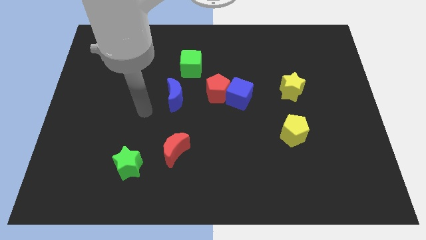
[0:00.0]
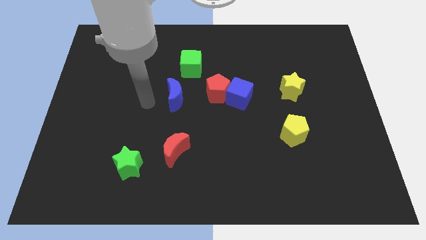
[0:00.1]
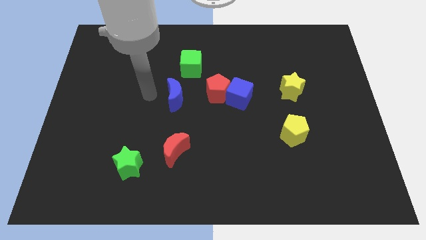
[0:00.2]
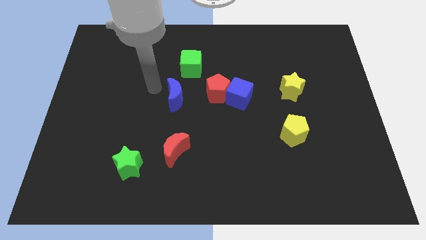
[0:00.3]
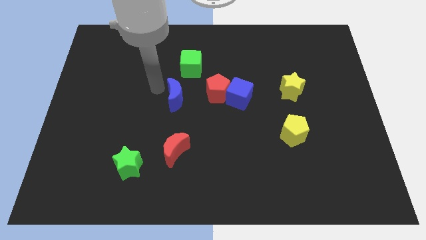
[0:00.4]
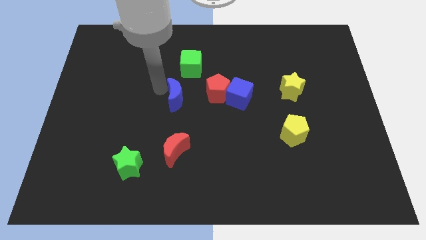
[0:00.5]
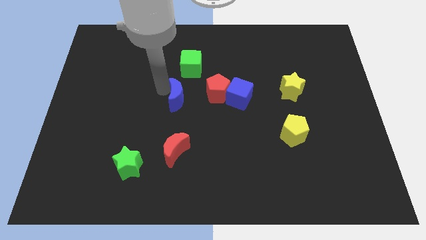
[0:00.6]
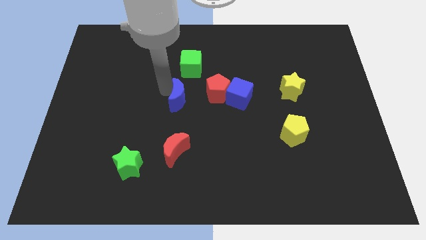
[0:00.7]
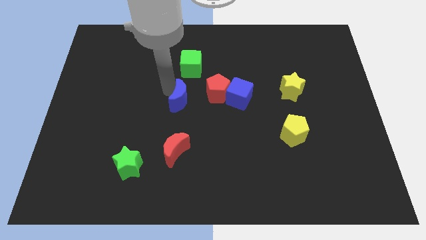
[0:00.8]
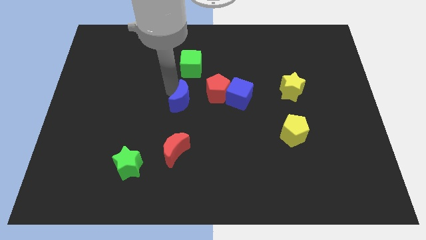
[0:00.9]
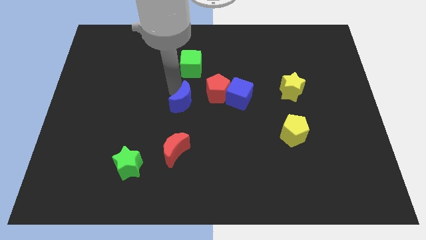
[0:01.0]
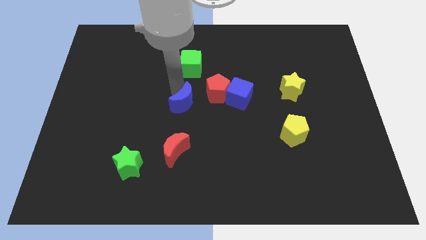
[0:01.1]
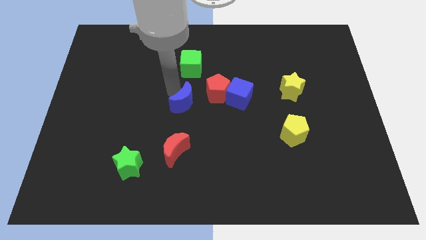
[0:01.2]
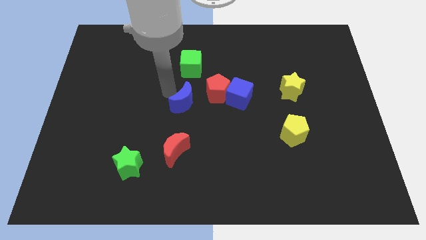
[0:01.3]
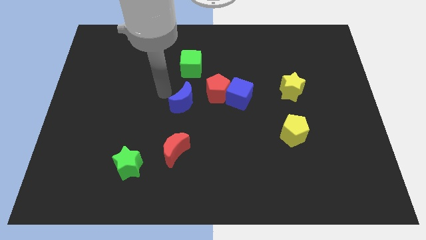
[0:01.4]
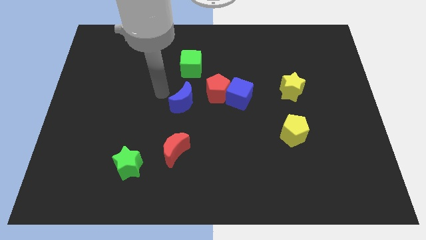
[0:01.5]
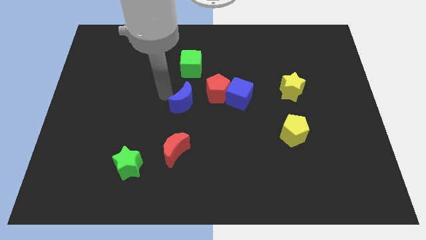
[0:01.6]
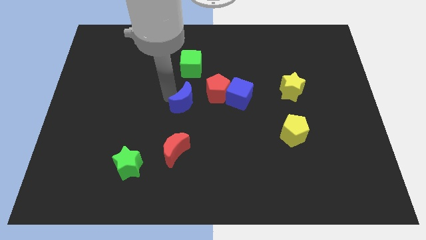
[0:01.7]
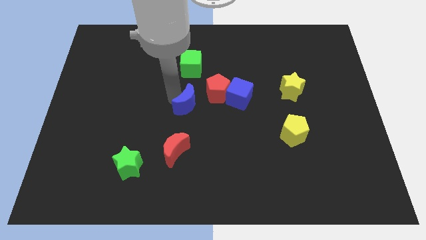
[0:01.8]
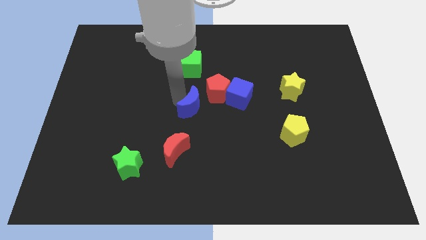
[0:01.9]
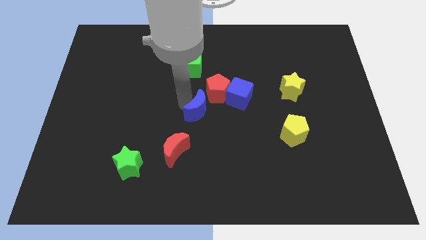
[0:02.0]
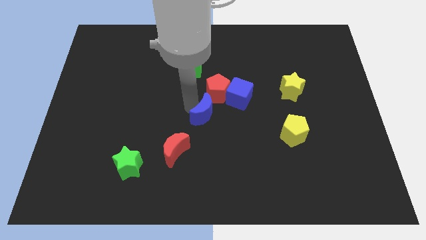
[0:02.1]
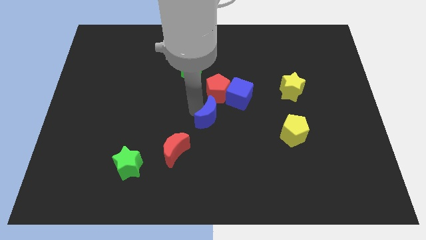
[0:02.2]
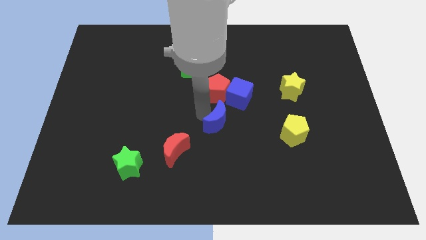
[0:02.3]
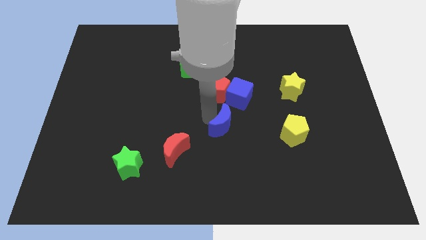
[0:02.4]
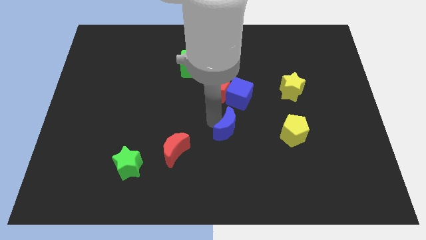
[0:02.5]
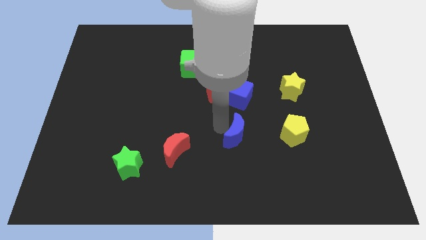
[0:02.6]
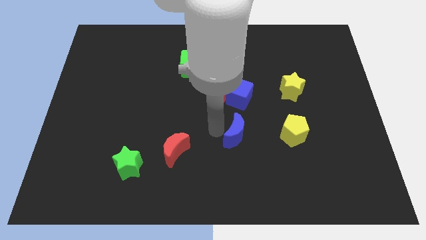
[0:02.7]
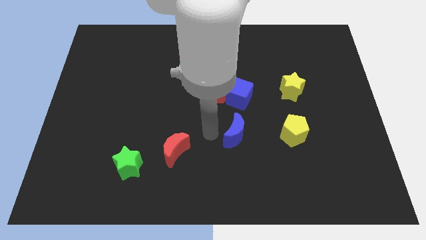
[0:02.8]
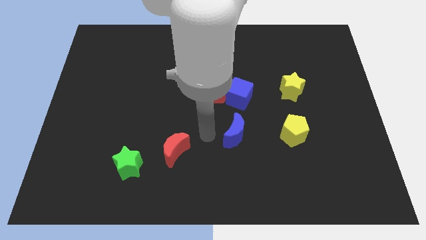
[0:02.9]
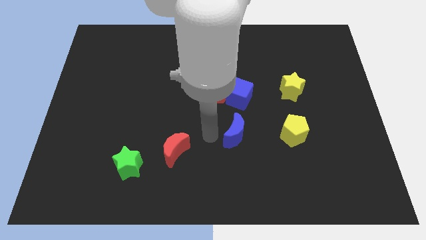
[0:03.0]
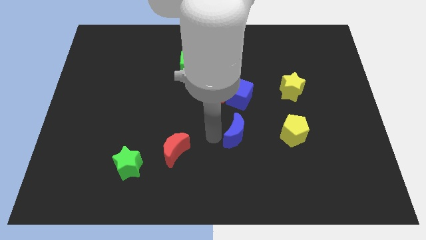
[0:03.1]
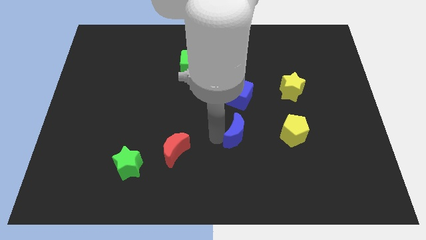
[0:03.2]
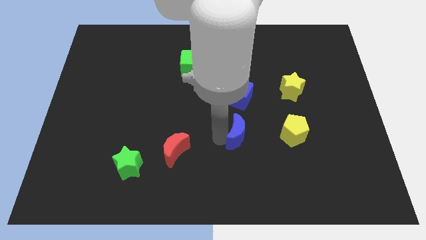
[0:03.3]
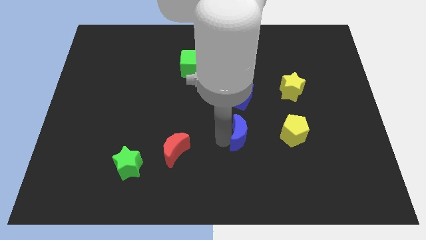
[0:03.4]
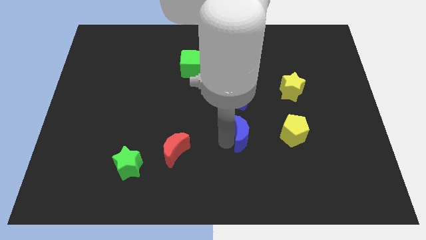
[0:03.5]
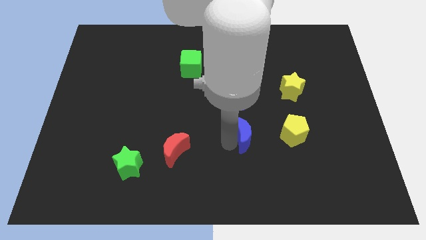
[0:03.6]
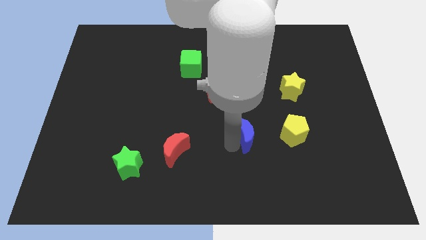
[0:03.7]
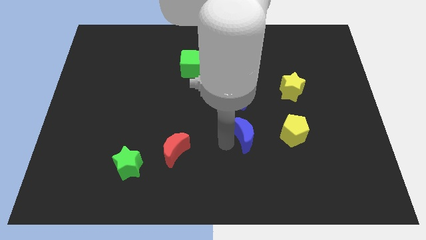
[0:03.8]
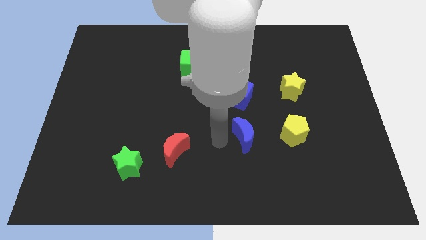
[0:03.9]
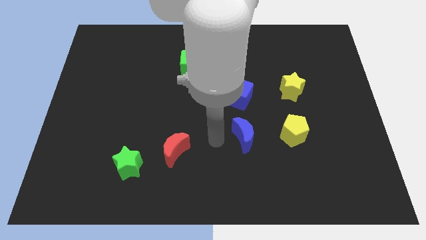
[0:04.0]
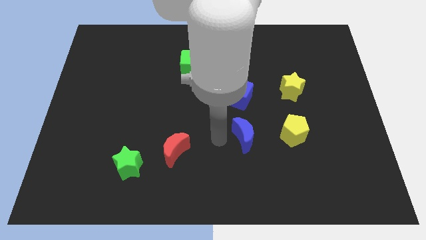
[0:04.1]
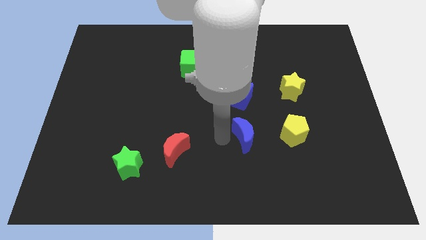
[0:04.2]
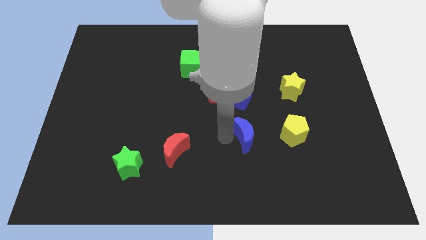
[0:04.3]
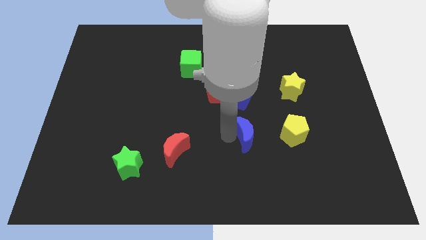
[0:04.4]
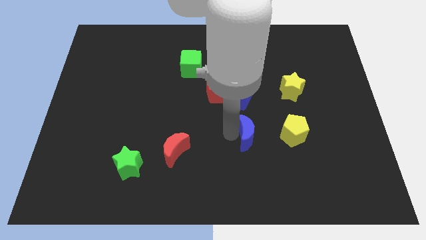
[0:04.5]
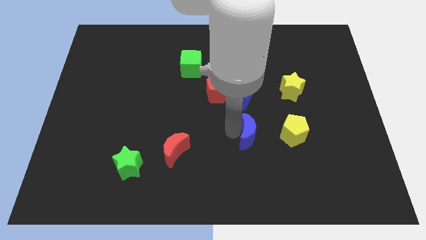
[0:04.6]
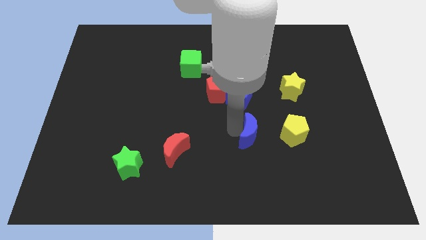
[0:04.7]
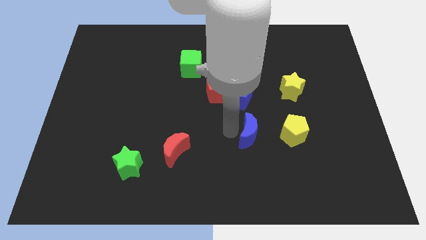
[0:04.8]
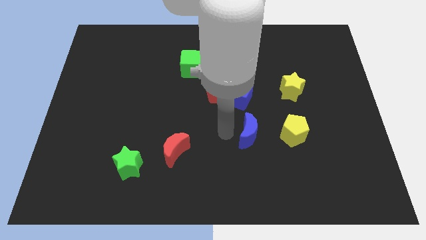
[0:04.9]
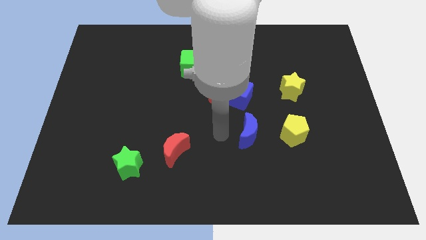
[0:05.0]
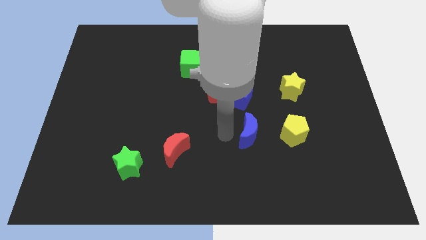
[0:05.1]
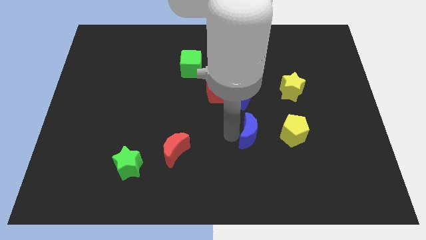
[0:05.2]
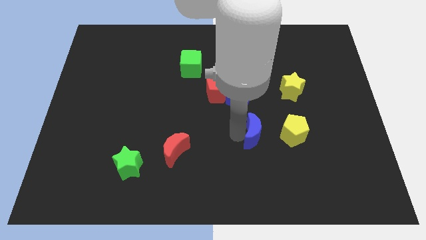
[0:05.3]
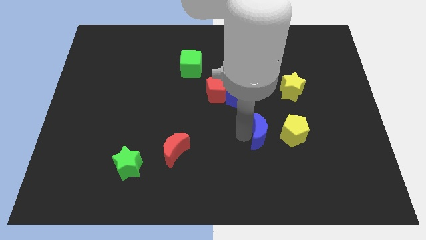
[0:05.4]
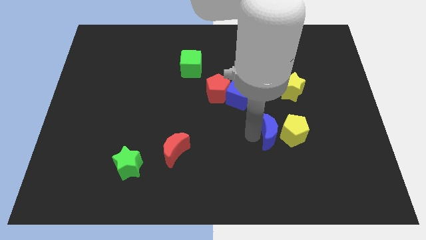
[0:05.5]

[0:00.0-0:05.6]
slide the blue moon close to the yellow pentagon

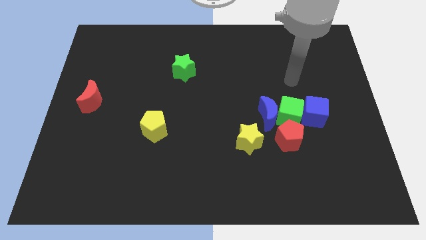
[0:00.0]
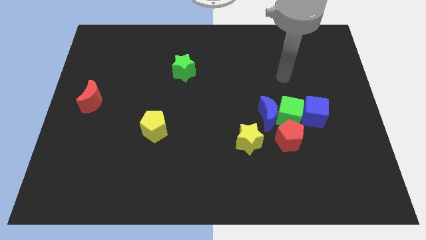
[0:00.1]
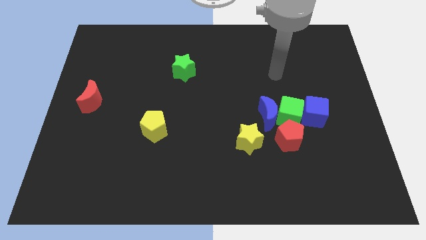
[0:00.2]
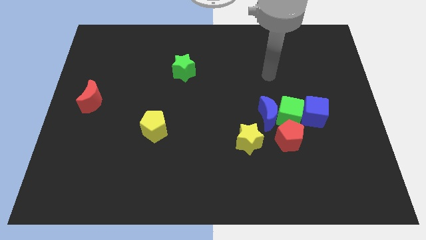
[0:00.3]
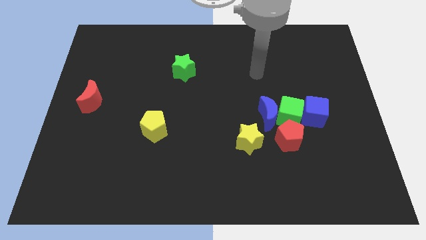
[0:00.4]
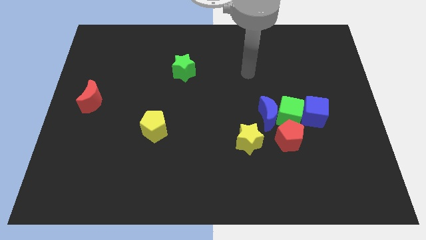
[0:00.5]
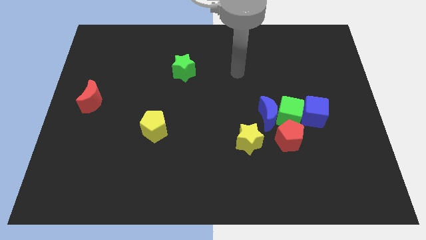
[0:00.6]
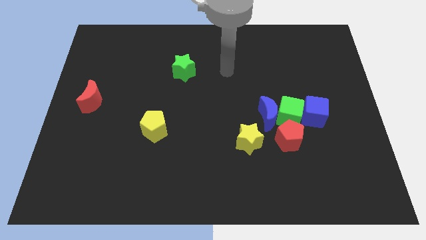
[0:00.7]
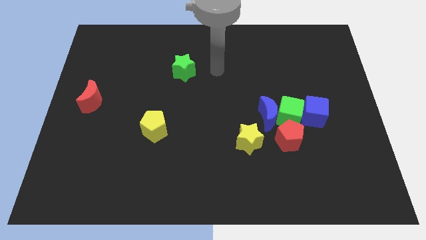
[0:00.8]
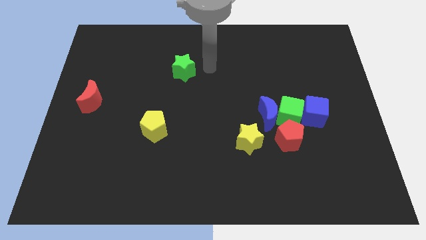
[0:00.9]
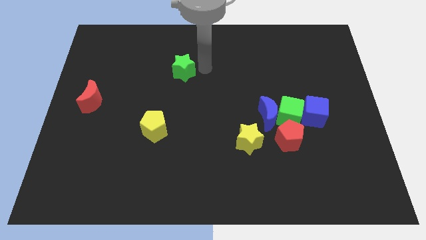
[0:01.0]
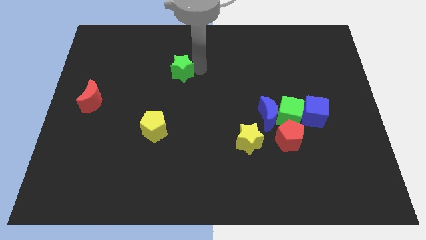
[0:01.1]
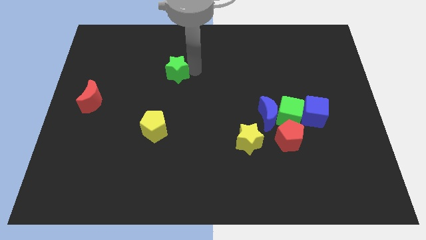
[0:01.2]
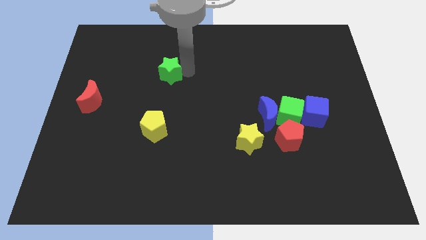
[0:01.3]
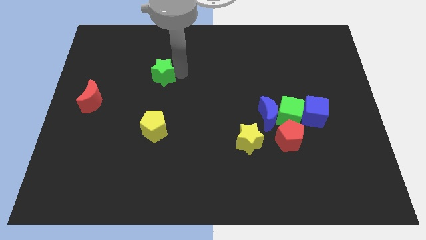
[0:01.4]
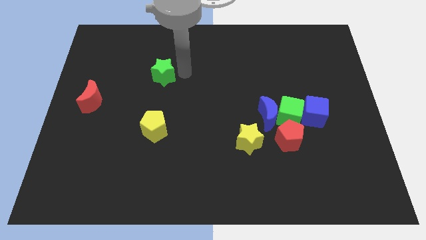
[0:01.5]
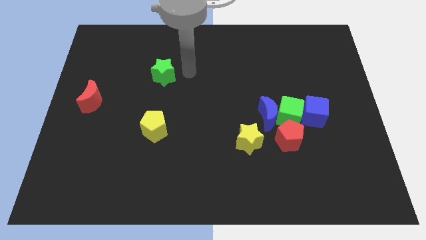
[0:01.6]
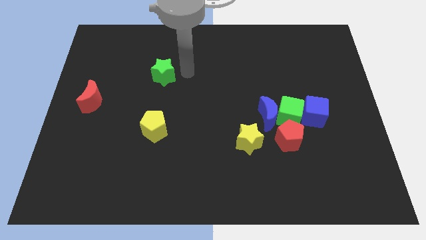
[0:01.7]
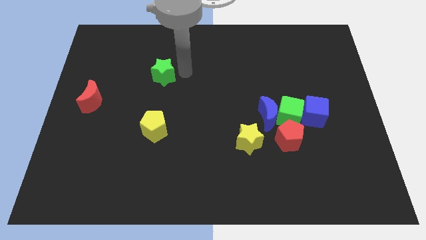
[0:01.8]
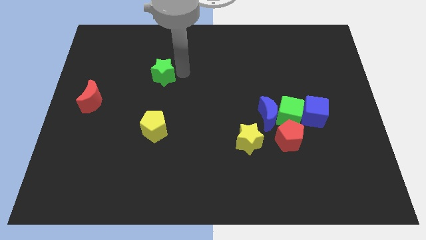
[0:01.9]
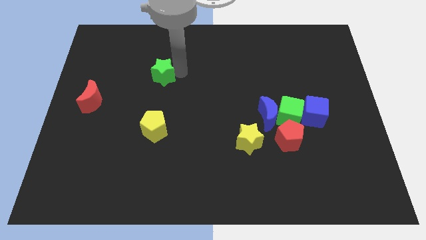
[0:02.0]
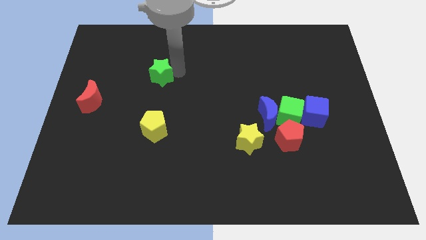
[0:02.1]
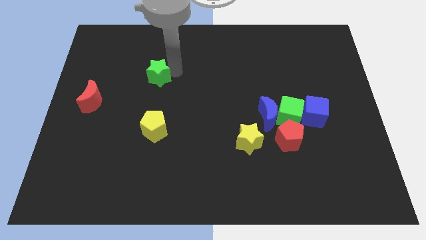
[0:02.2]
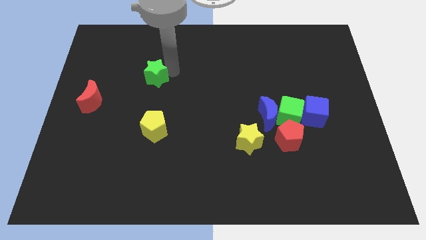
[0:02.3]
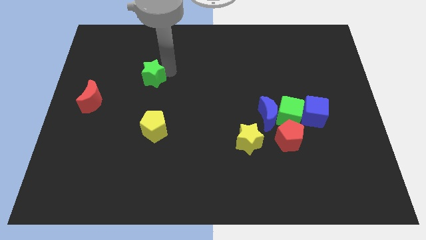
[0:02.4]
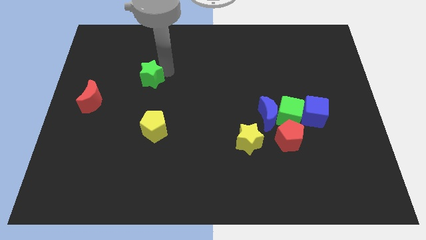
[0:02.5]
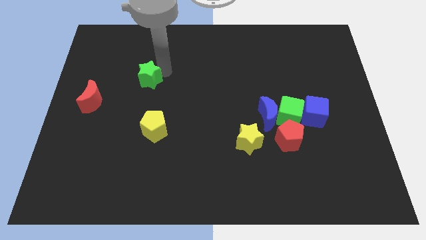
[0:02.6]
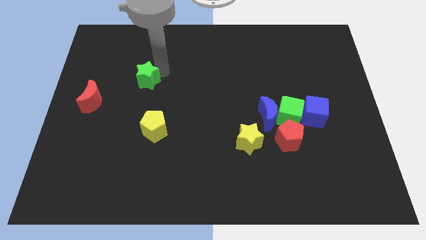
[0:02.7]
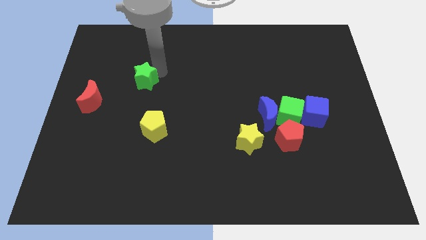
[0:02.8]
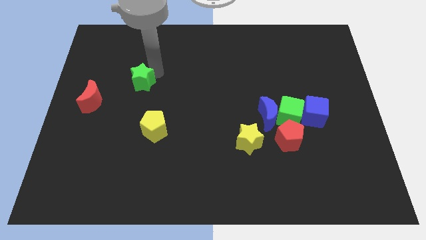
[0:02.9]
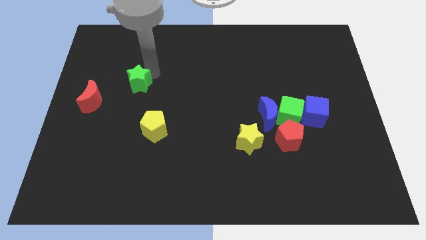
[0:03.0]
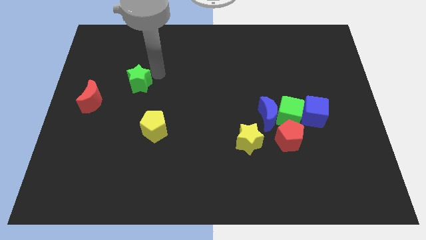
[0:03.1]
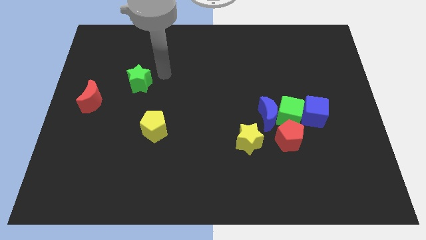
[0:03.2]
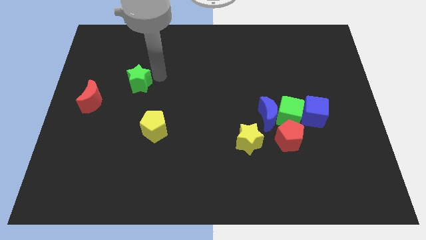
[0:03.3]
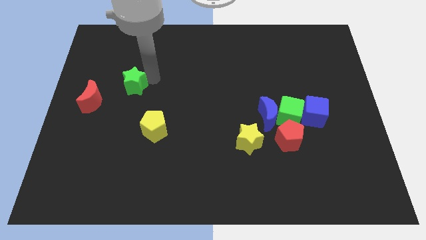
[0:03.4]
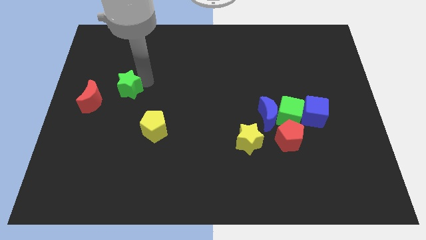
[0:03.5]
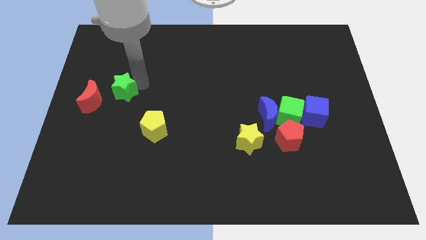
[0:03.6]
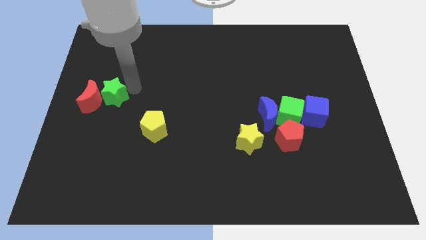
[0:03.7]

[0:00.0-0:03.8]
slide the green star next to the red moon
